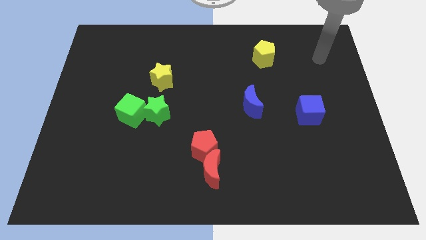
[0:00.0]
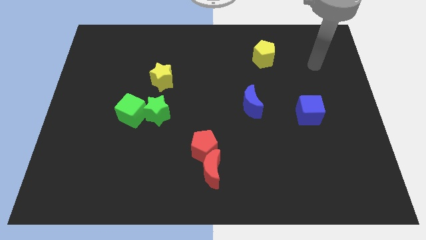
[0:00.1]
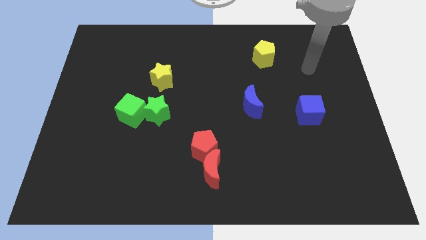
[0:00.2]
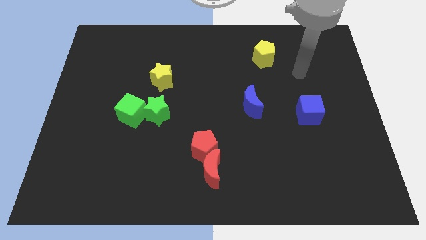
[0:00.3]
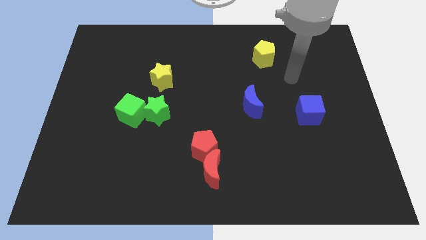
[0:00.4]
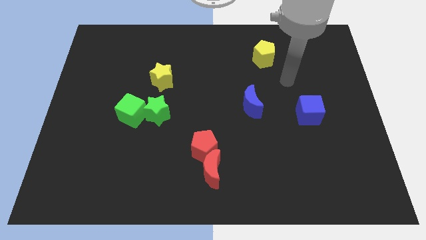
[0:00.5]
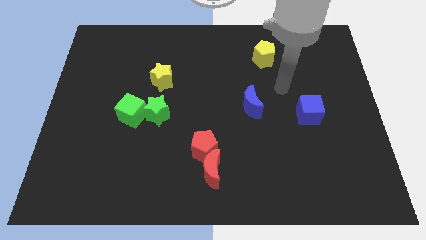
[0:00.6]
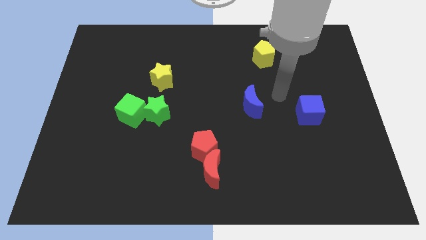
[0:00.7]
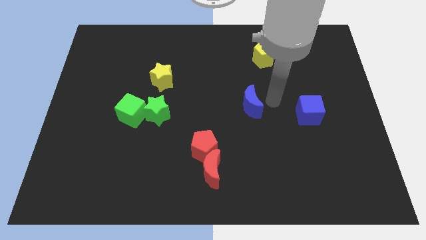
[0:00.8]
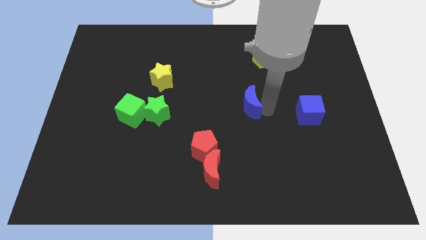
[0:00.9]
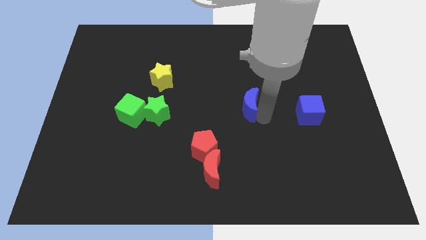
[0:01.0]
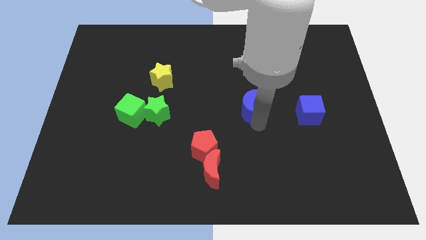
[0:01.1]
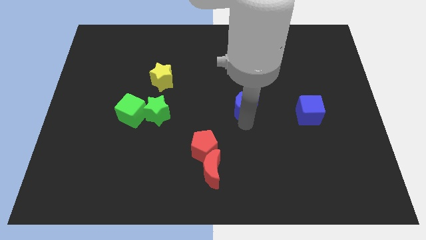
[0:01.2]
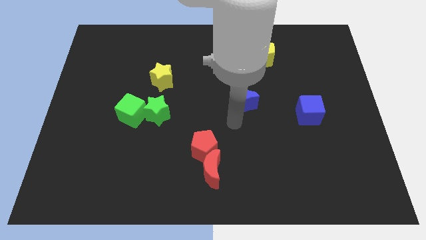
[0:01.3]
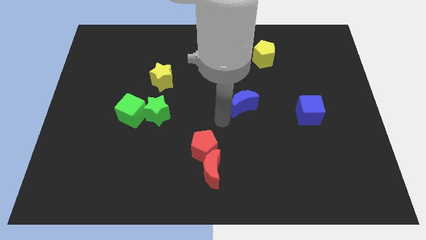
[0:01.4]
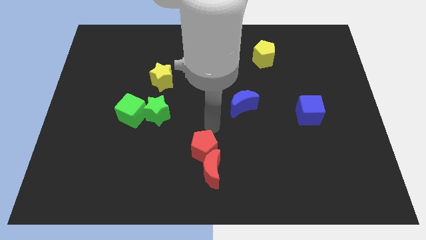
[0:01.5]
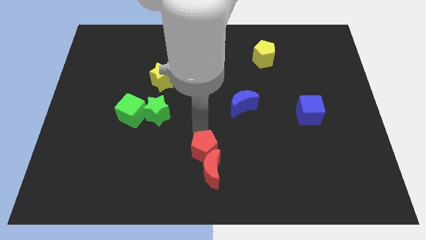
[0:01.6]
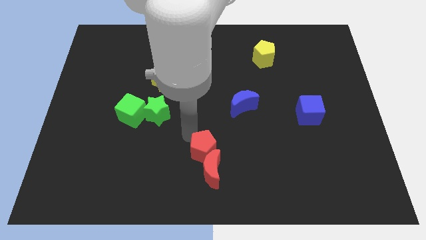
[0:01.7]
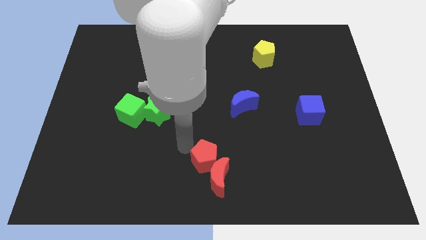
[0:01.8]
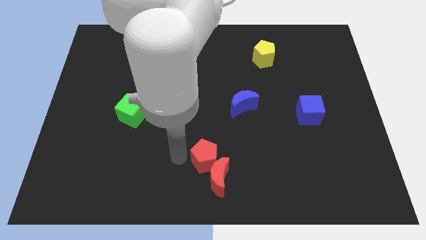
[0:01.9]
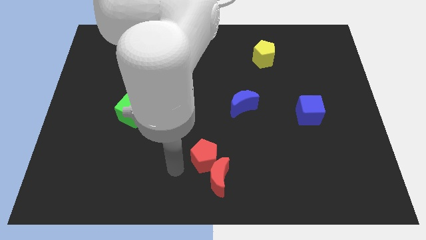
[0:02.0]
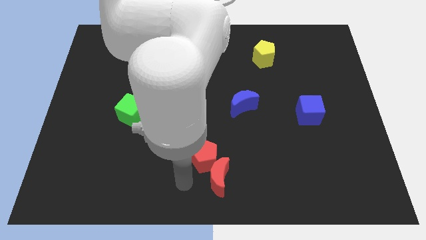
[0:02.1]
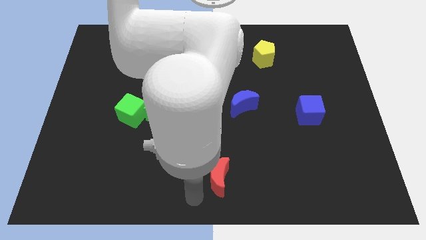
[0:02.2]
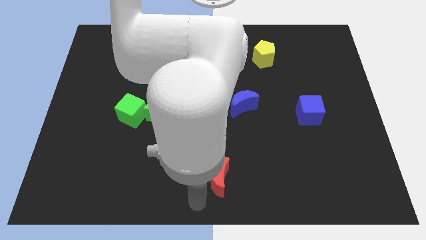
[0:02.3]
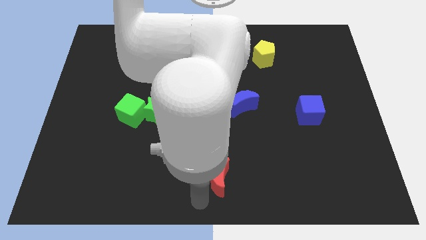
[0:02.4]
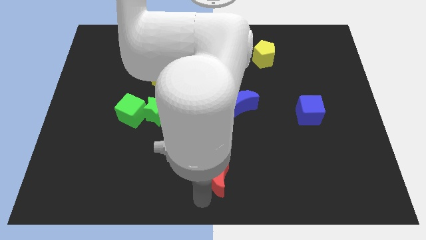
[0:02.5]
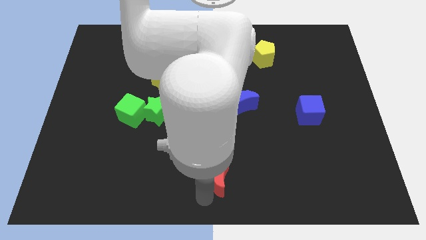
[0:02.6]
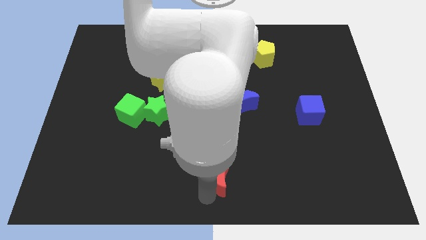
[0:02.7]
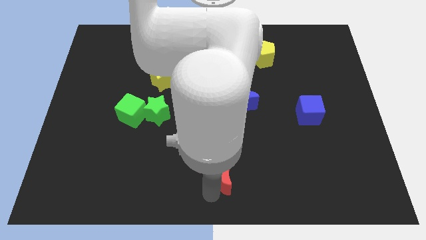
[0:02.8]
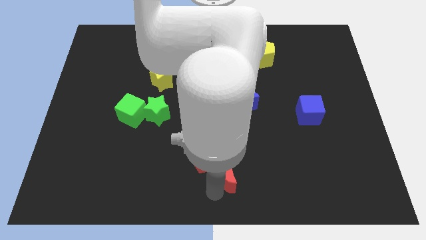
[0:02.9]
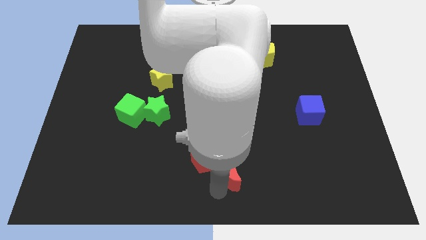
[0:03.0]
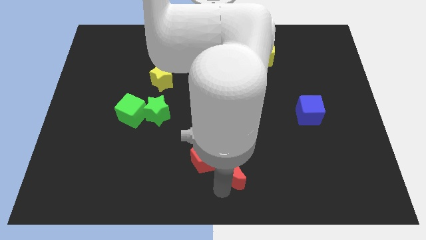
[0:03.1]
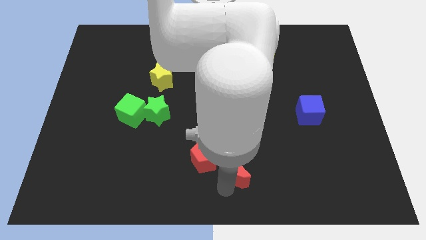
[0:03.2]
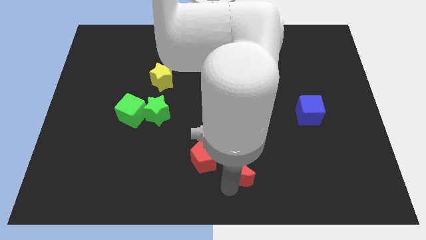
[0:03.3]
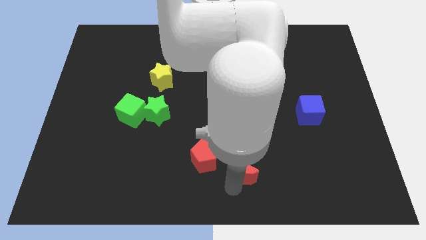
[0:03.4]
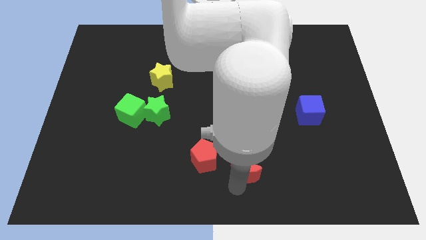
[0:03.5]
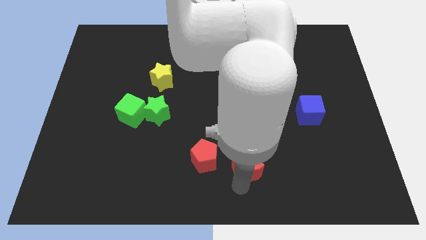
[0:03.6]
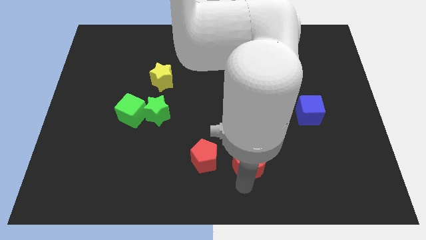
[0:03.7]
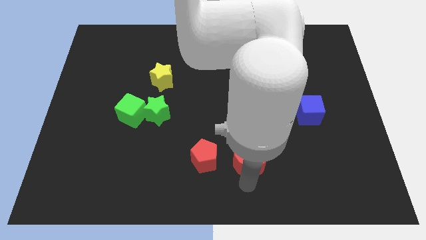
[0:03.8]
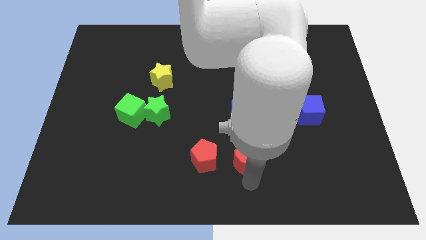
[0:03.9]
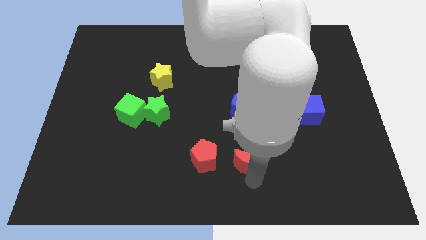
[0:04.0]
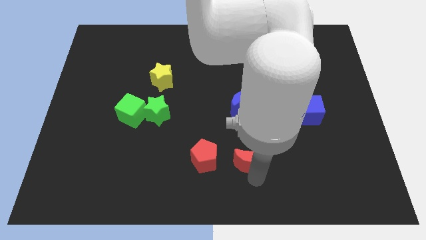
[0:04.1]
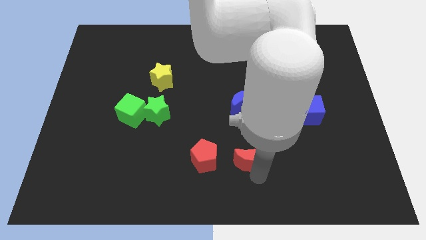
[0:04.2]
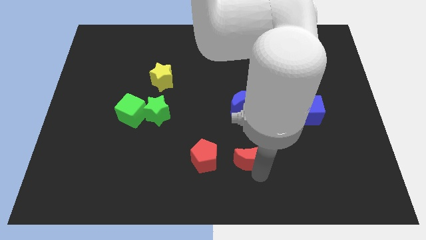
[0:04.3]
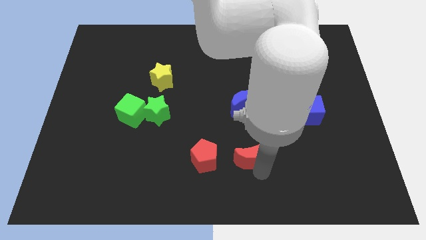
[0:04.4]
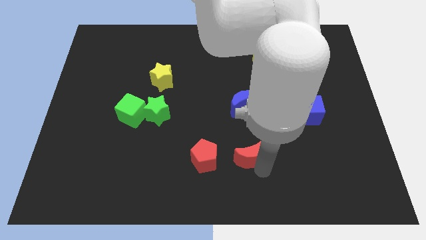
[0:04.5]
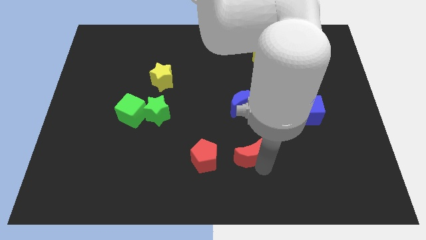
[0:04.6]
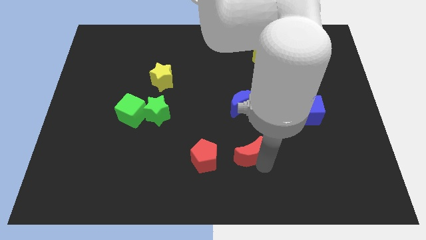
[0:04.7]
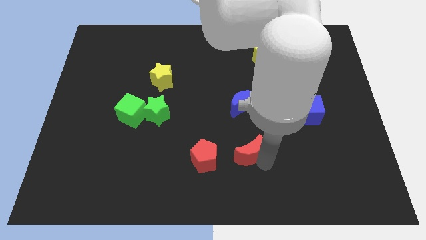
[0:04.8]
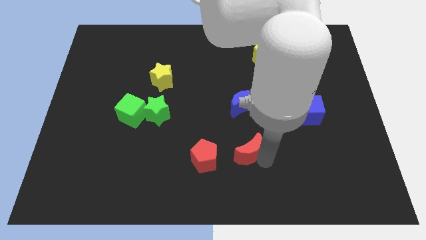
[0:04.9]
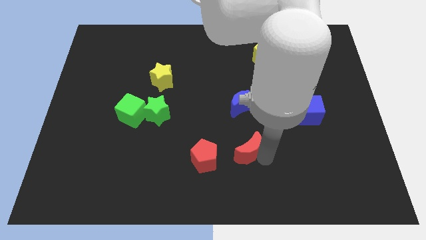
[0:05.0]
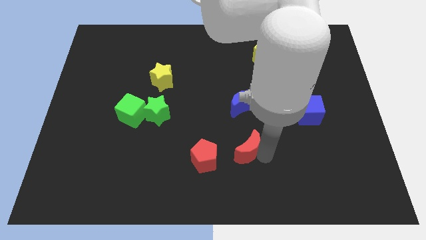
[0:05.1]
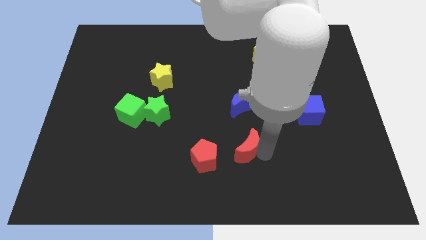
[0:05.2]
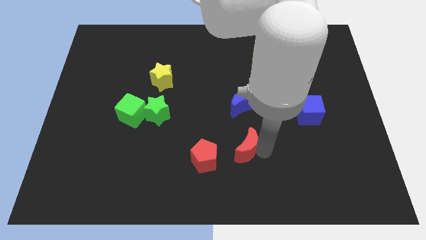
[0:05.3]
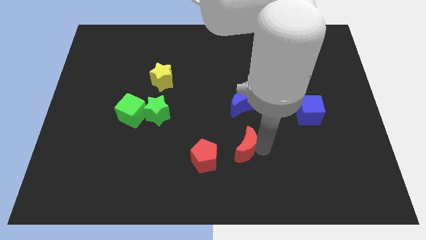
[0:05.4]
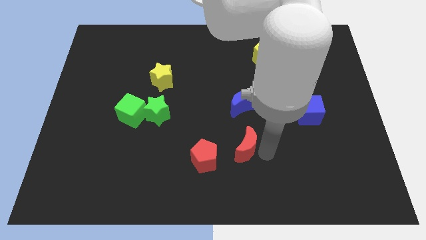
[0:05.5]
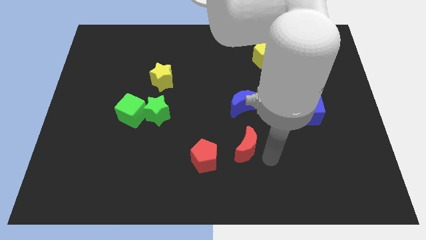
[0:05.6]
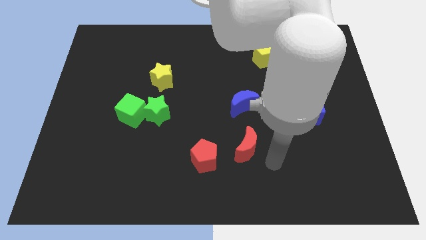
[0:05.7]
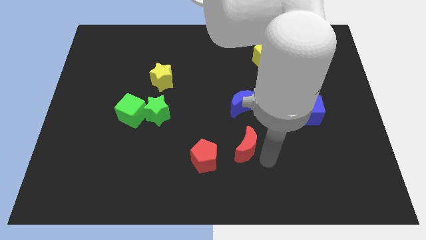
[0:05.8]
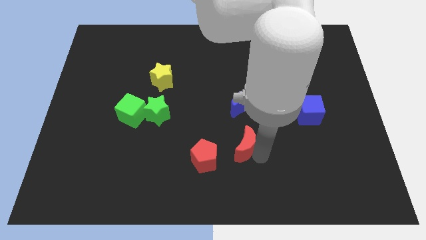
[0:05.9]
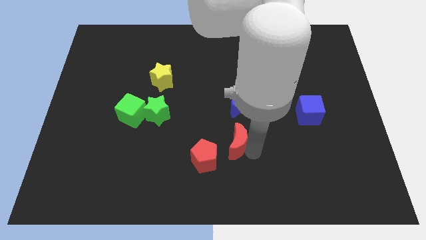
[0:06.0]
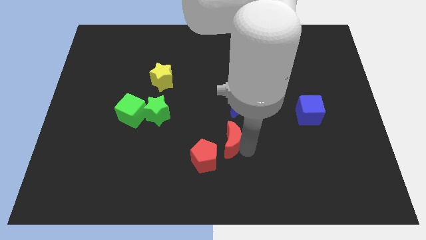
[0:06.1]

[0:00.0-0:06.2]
move the red moon to the center of the board

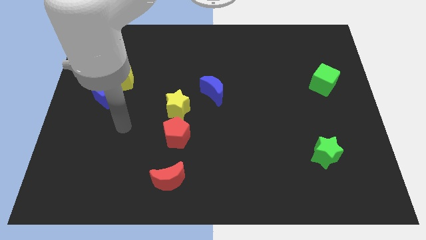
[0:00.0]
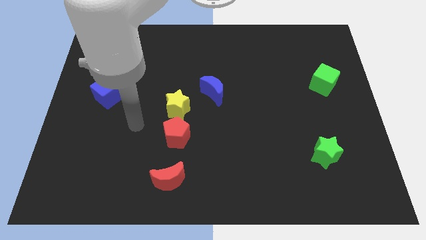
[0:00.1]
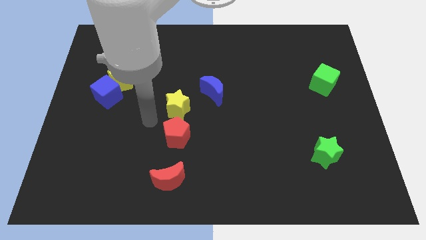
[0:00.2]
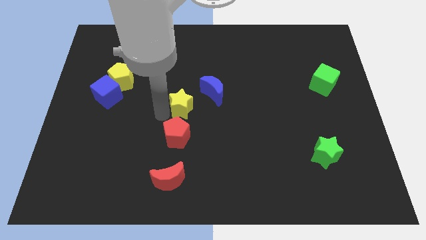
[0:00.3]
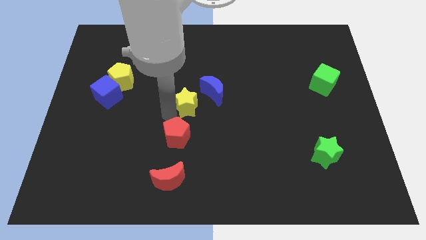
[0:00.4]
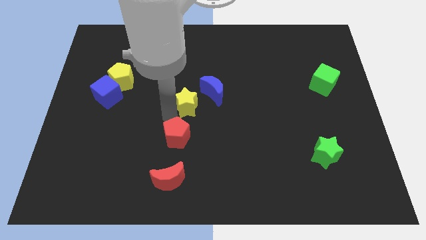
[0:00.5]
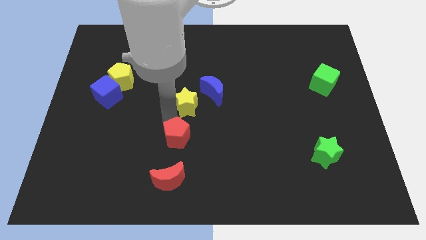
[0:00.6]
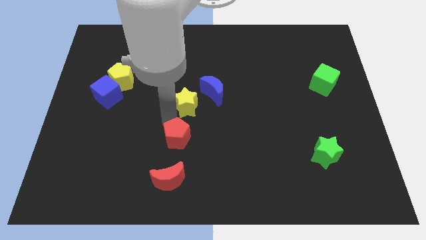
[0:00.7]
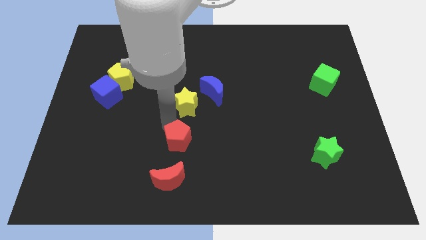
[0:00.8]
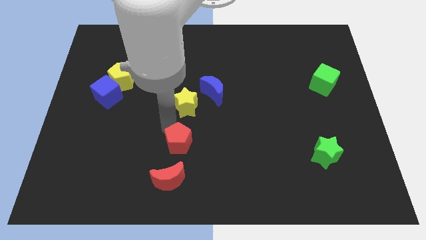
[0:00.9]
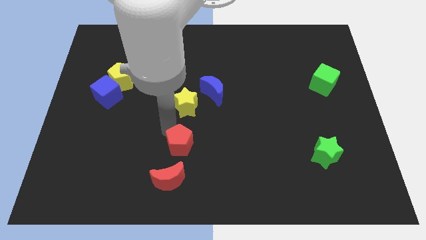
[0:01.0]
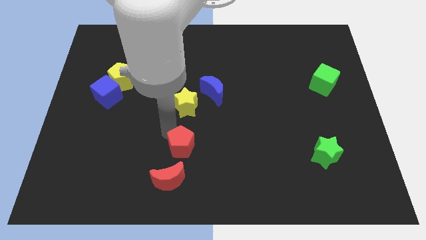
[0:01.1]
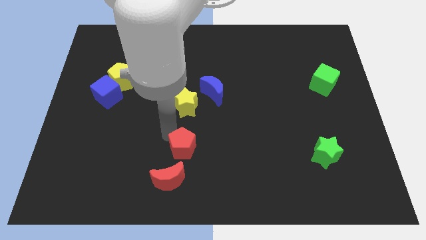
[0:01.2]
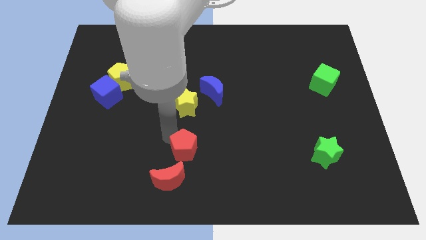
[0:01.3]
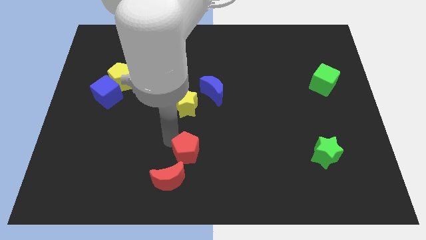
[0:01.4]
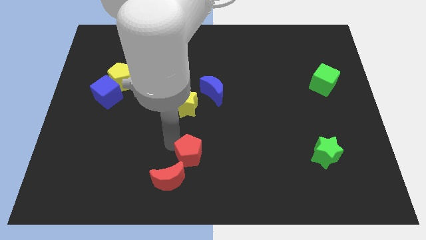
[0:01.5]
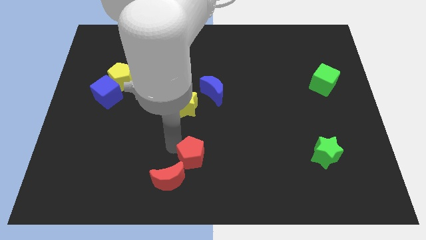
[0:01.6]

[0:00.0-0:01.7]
put the red pentagon to the bottom
